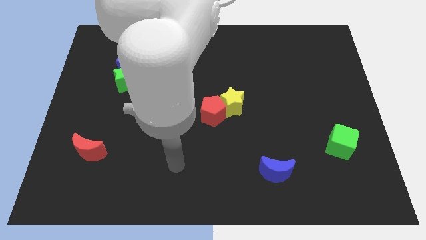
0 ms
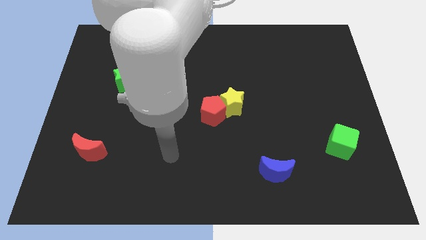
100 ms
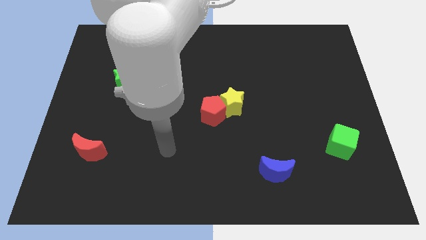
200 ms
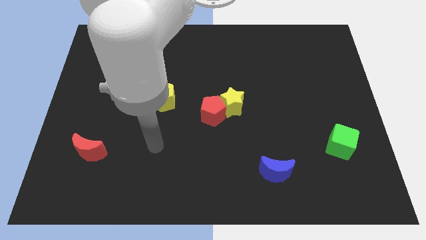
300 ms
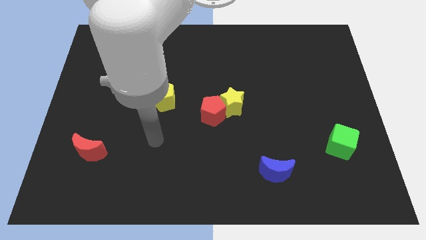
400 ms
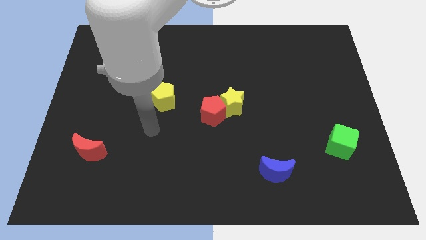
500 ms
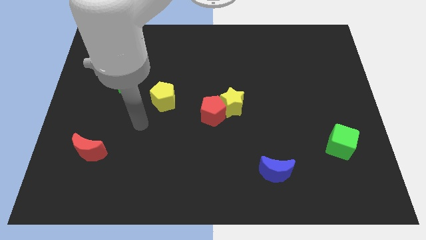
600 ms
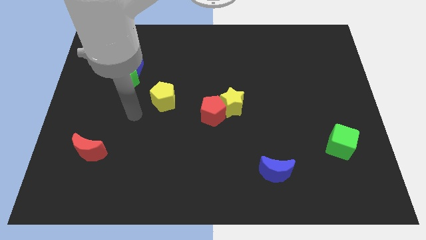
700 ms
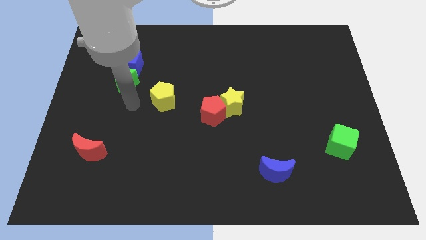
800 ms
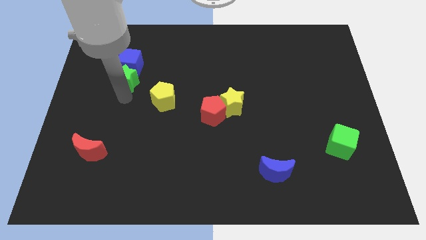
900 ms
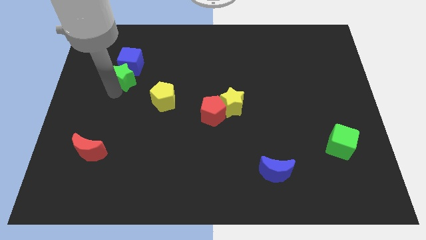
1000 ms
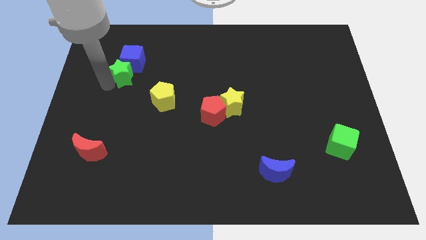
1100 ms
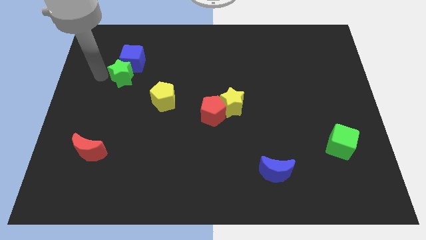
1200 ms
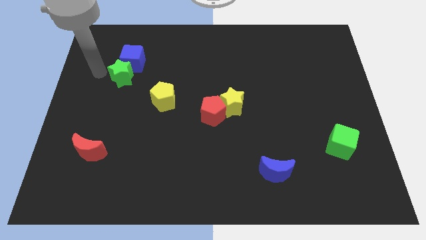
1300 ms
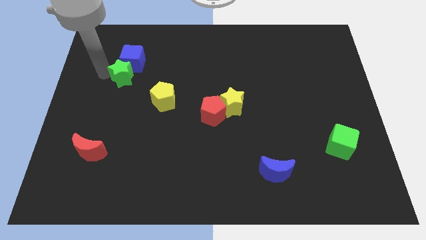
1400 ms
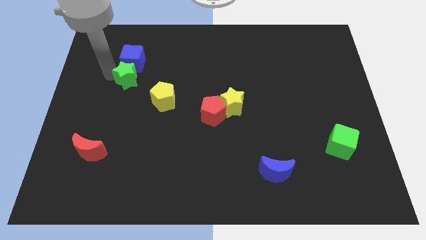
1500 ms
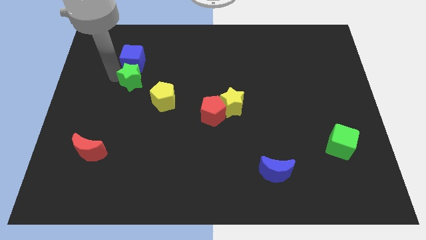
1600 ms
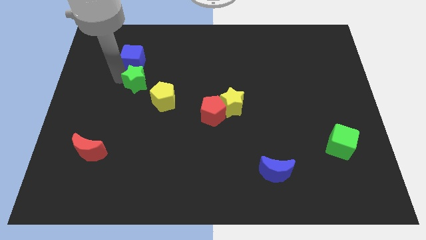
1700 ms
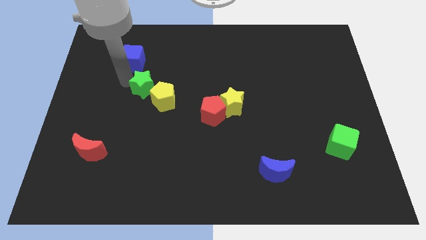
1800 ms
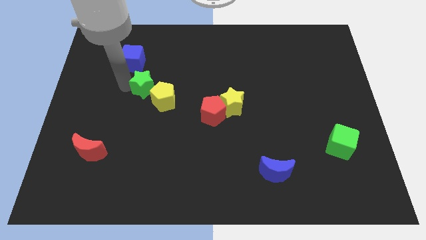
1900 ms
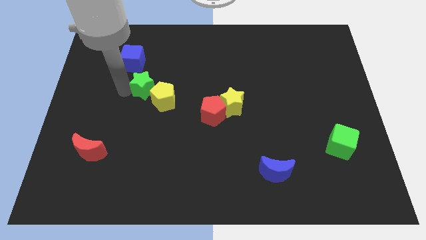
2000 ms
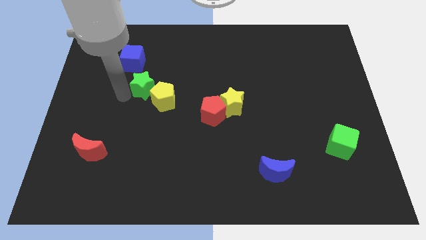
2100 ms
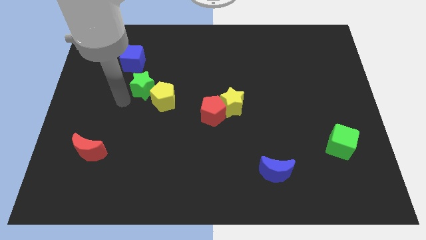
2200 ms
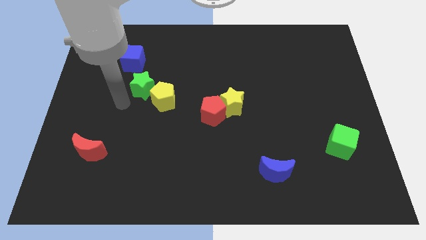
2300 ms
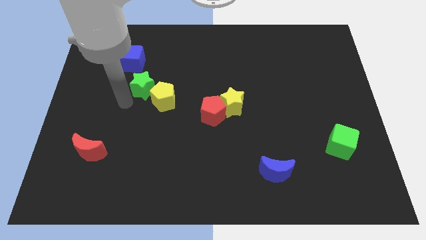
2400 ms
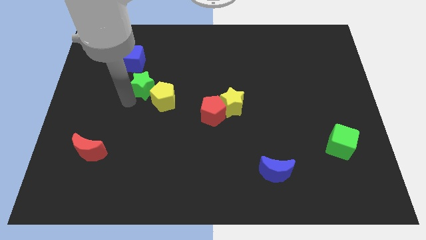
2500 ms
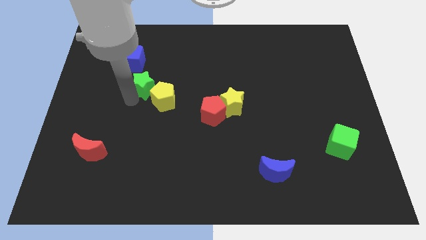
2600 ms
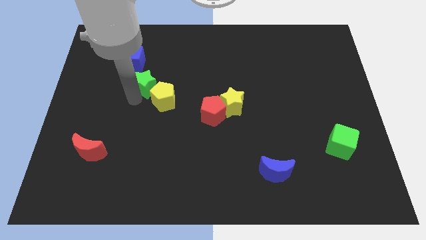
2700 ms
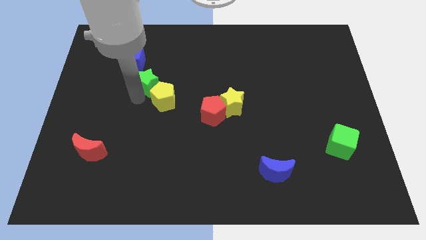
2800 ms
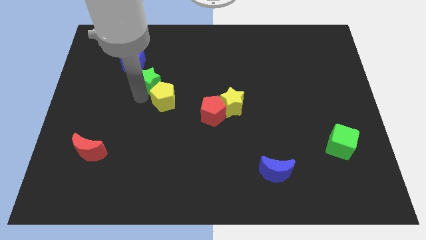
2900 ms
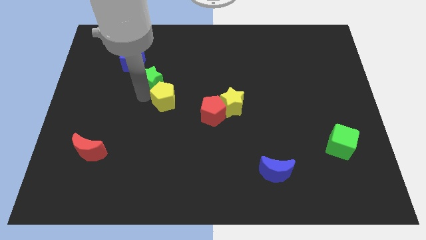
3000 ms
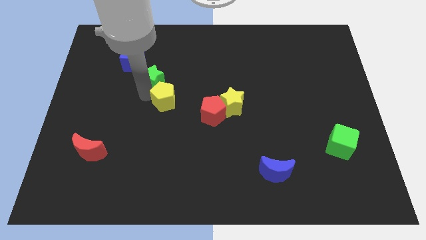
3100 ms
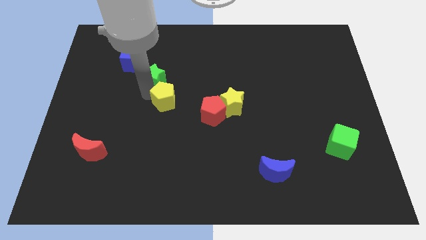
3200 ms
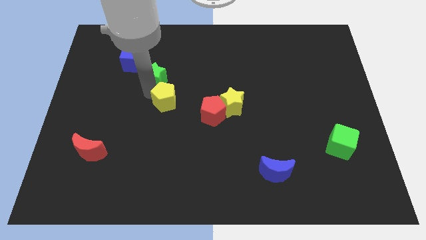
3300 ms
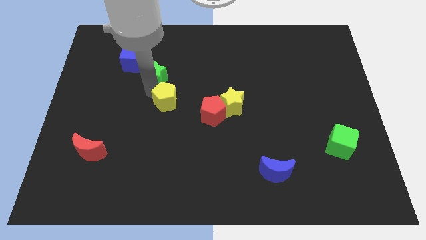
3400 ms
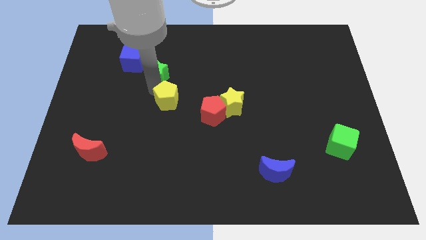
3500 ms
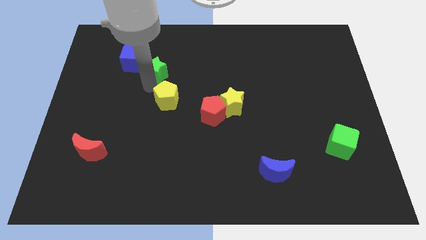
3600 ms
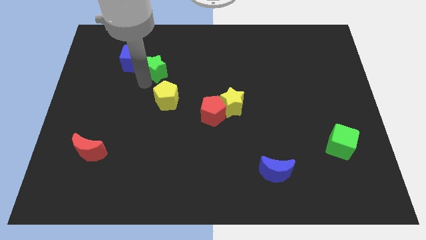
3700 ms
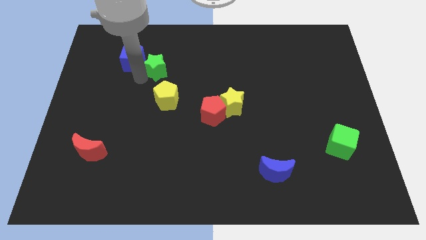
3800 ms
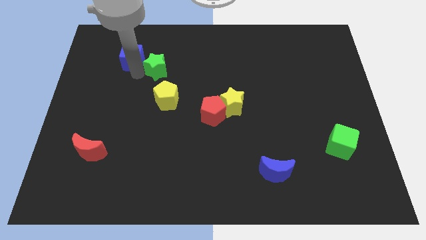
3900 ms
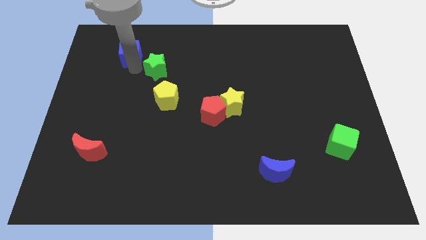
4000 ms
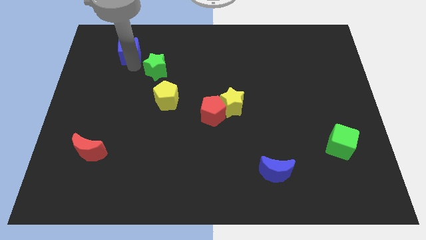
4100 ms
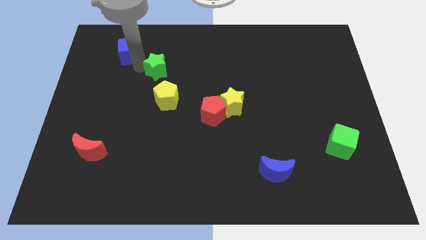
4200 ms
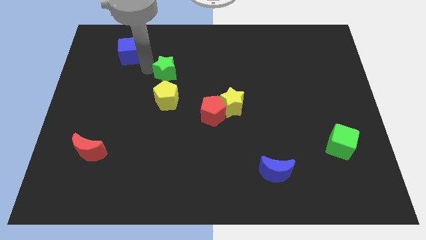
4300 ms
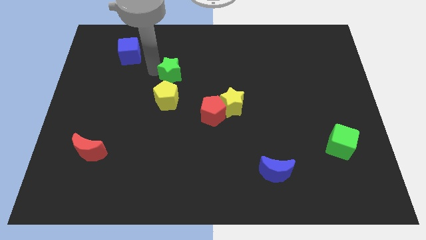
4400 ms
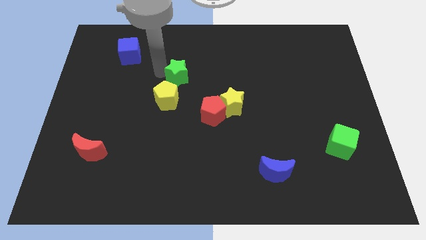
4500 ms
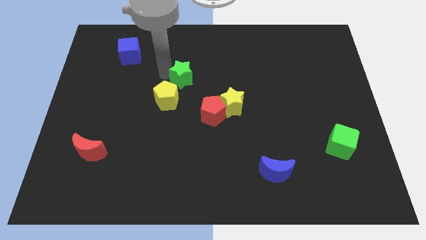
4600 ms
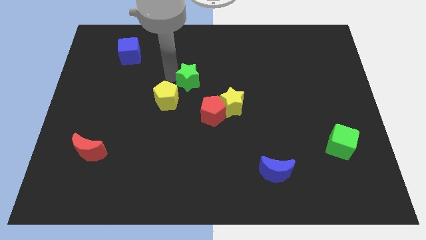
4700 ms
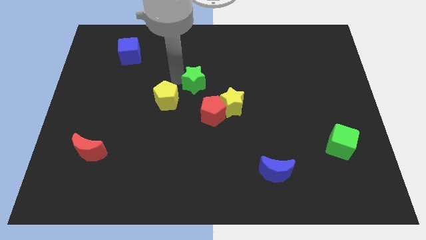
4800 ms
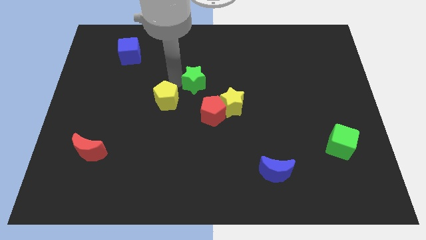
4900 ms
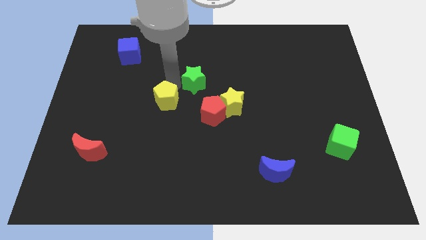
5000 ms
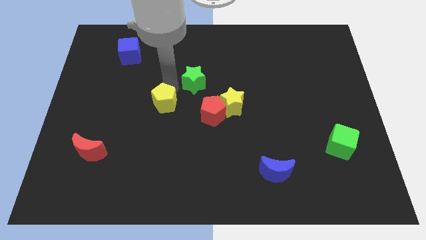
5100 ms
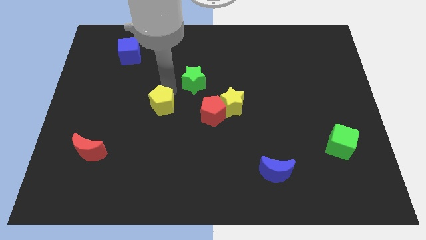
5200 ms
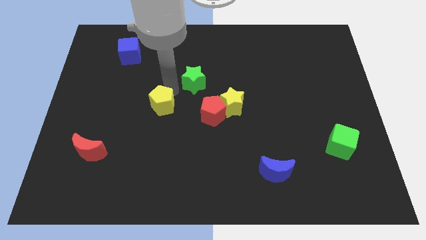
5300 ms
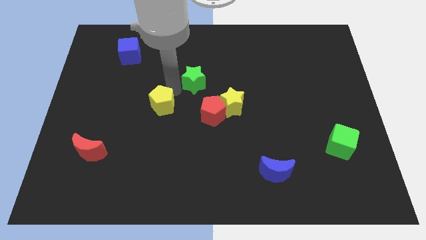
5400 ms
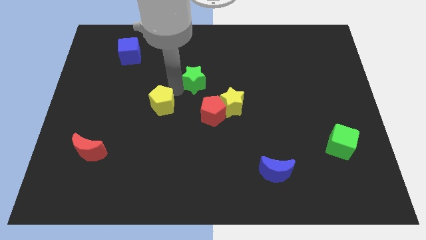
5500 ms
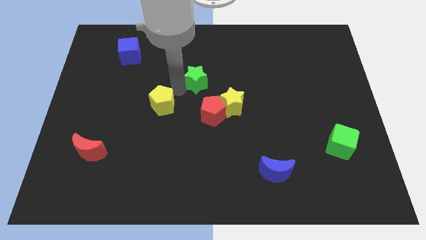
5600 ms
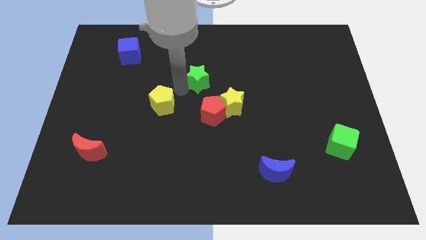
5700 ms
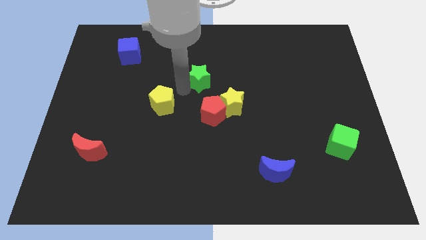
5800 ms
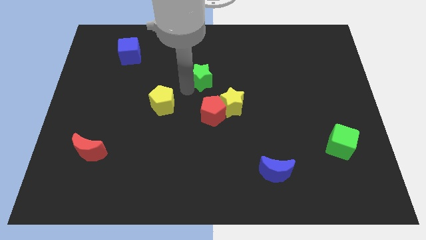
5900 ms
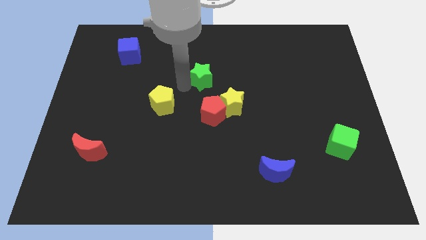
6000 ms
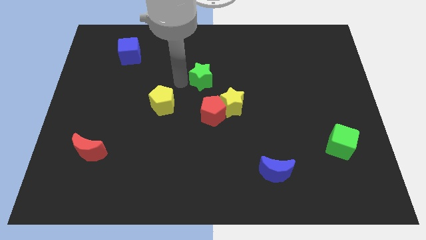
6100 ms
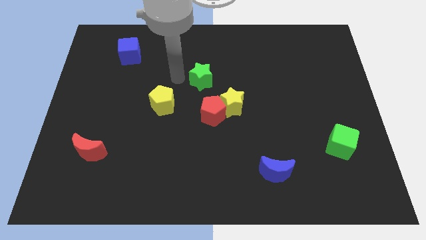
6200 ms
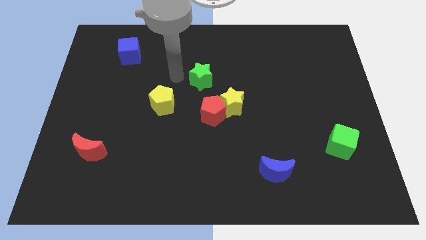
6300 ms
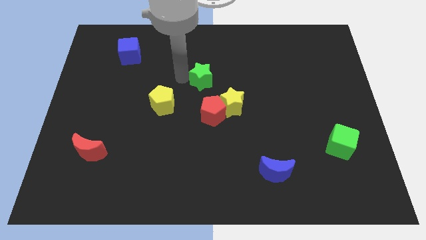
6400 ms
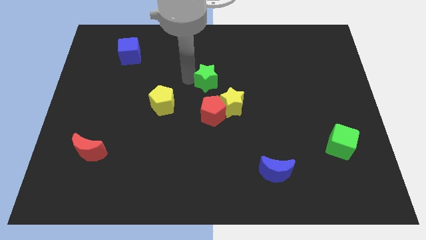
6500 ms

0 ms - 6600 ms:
push the green star right

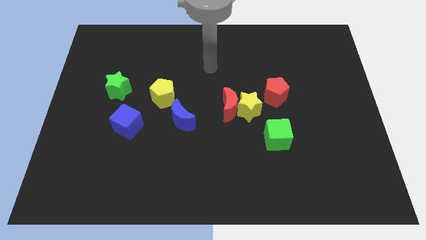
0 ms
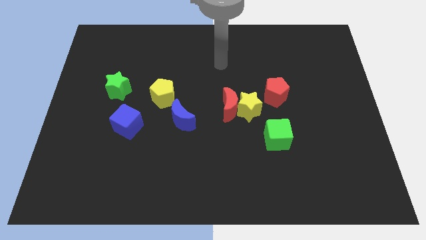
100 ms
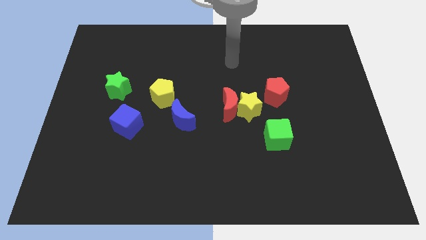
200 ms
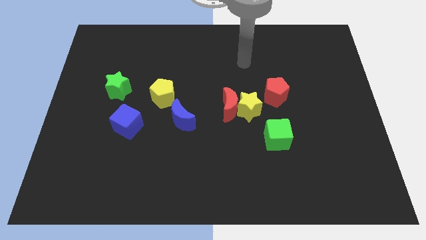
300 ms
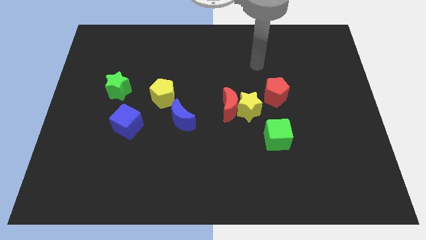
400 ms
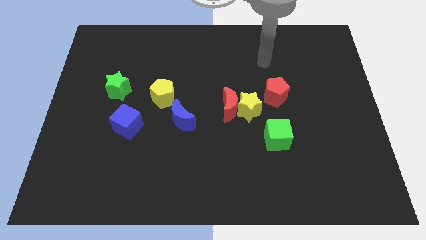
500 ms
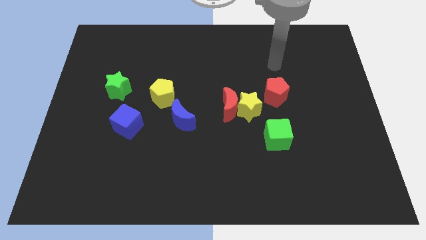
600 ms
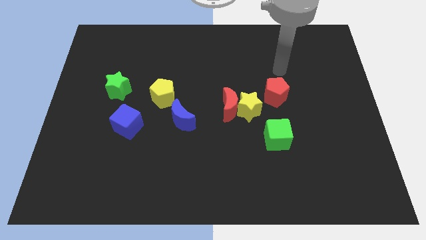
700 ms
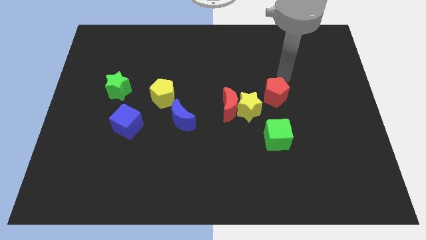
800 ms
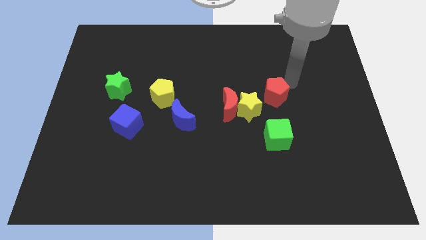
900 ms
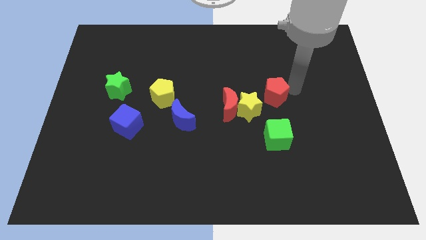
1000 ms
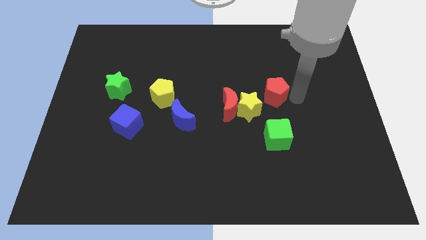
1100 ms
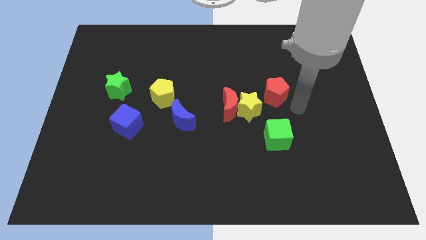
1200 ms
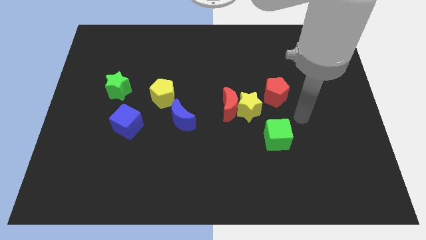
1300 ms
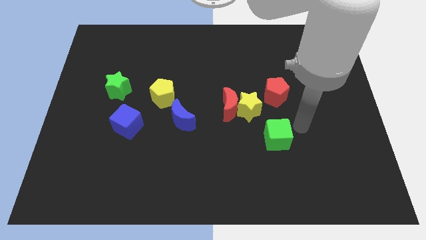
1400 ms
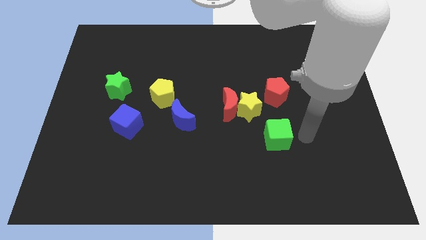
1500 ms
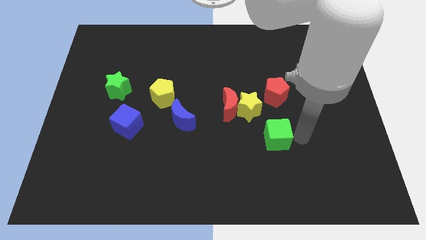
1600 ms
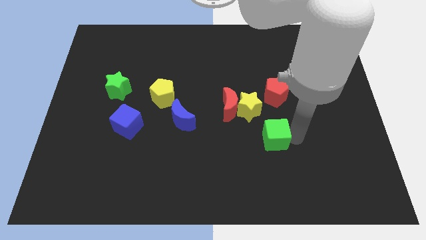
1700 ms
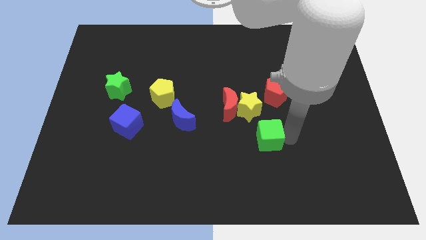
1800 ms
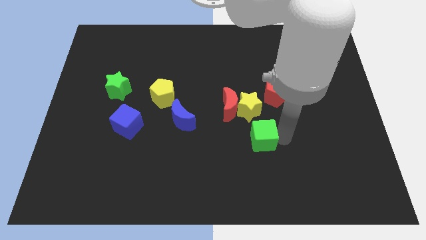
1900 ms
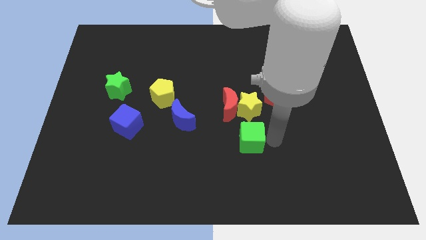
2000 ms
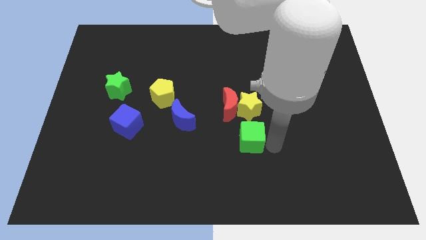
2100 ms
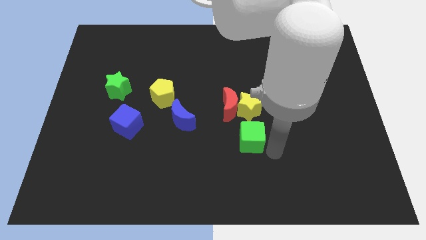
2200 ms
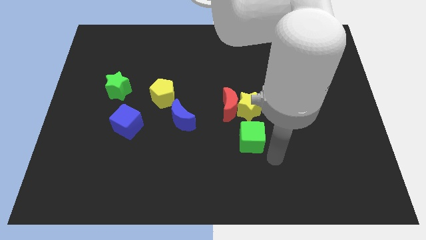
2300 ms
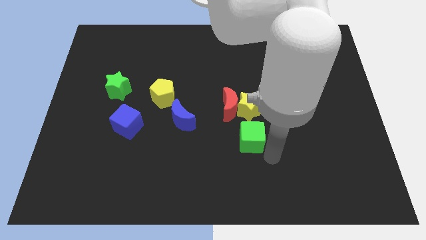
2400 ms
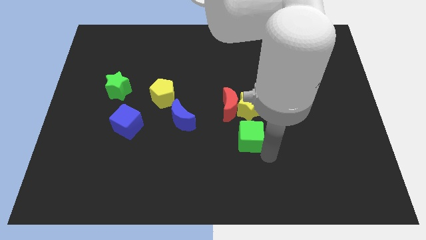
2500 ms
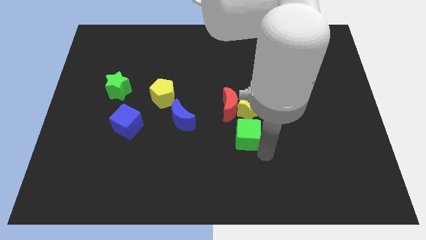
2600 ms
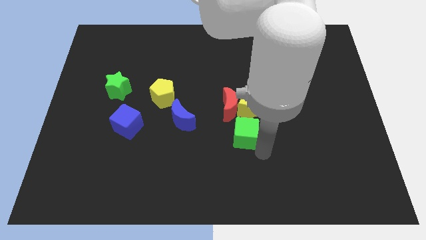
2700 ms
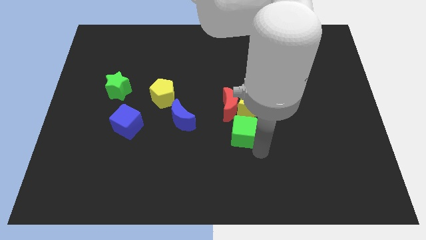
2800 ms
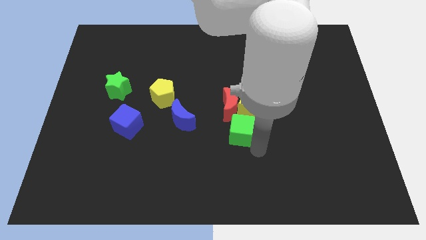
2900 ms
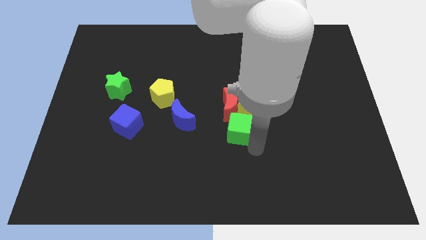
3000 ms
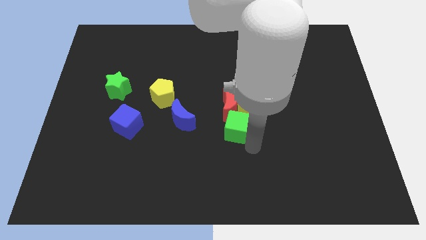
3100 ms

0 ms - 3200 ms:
slightly slide the green cube up and then to the left
